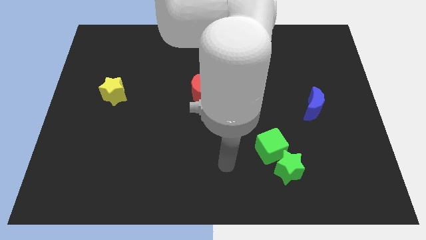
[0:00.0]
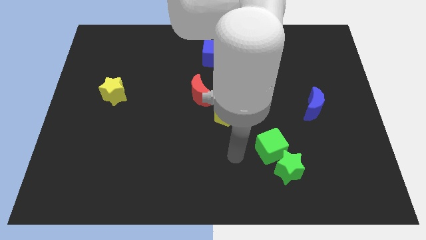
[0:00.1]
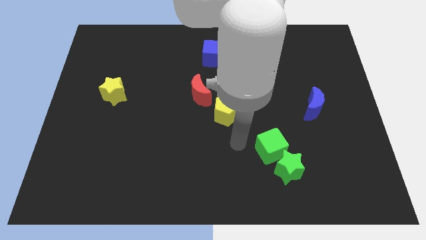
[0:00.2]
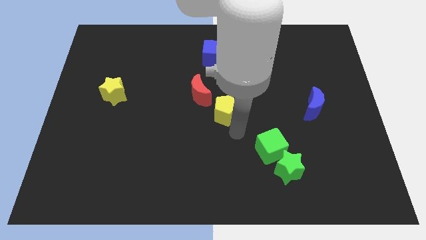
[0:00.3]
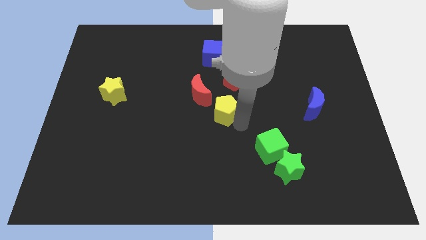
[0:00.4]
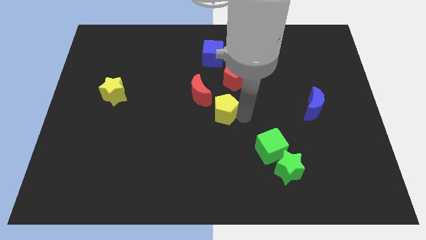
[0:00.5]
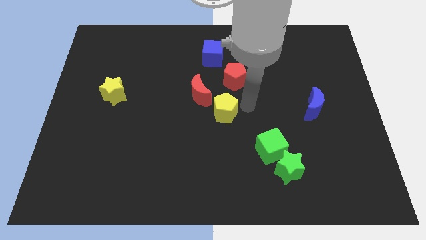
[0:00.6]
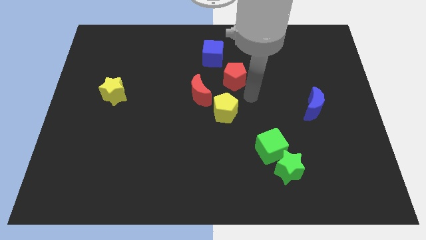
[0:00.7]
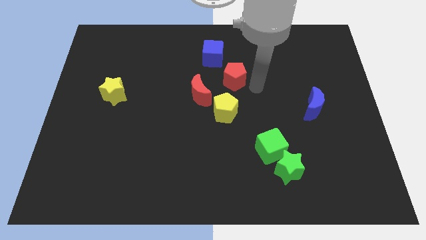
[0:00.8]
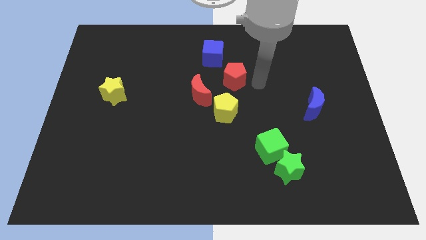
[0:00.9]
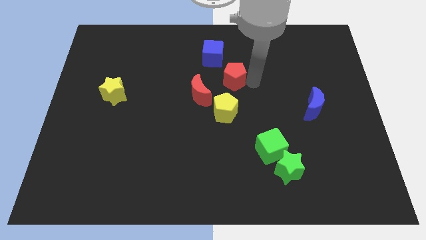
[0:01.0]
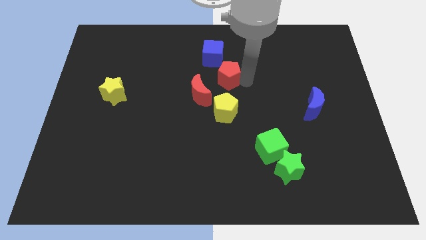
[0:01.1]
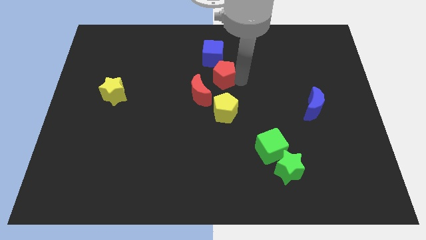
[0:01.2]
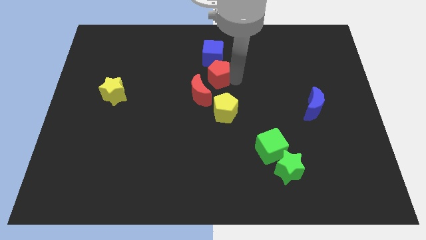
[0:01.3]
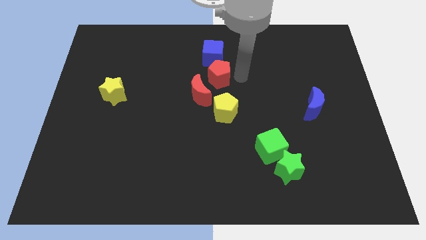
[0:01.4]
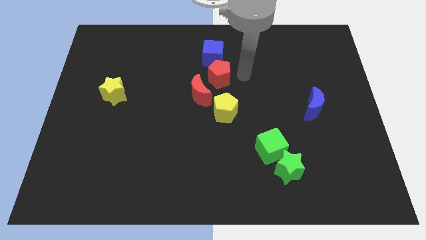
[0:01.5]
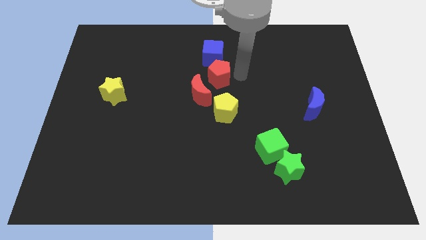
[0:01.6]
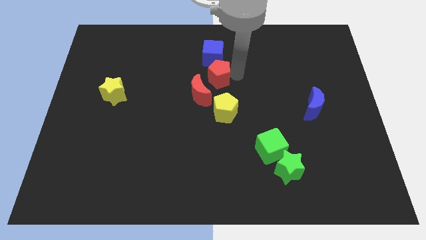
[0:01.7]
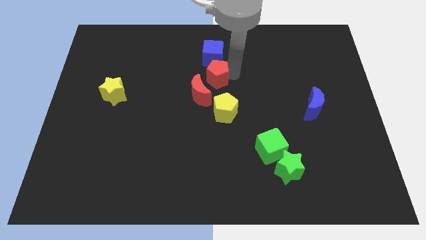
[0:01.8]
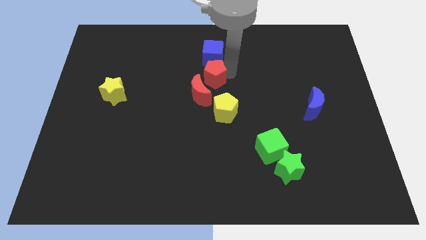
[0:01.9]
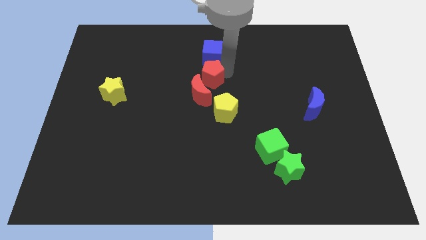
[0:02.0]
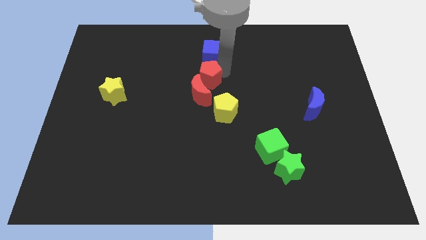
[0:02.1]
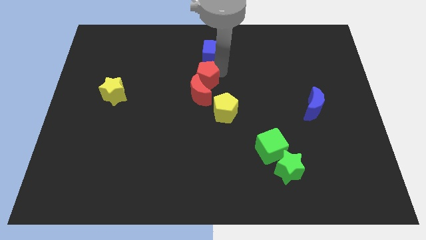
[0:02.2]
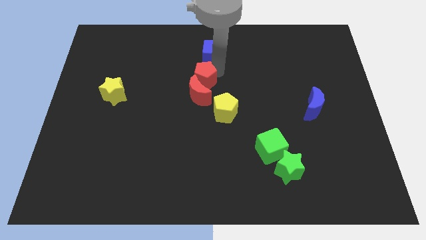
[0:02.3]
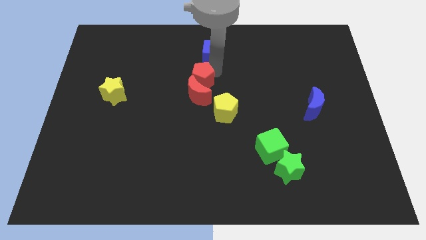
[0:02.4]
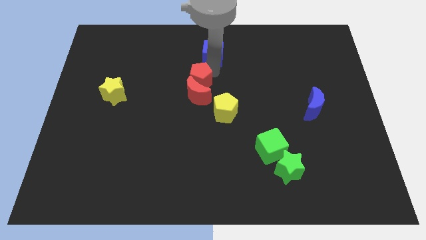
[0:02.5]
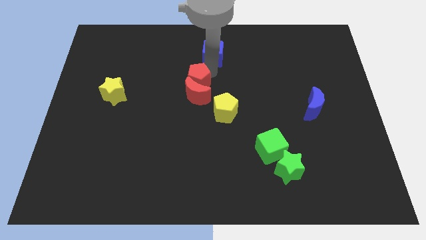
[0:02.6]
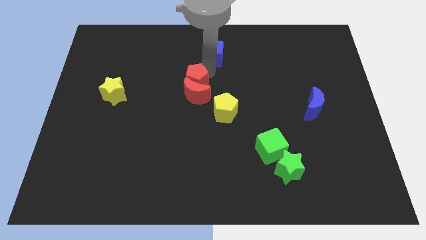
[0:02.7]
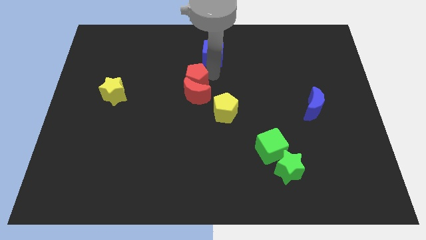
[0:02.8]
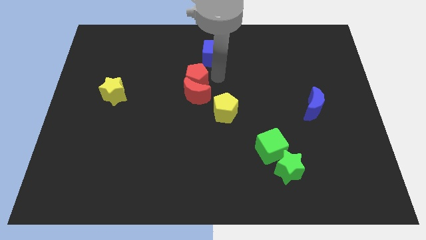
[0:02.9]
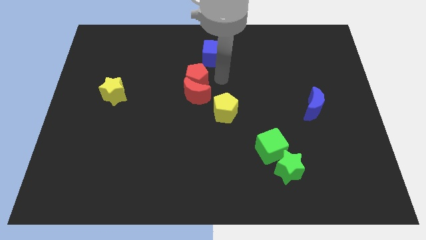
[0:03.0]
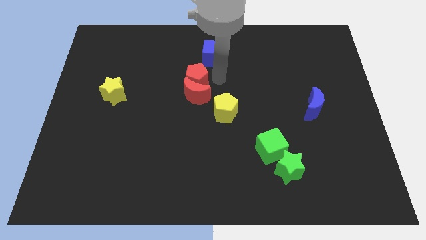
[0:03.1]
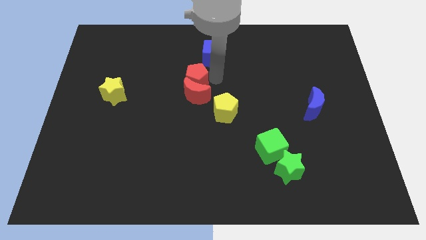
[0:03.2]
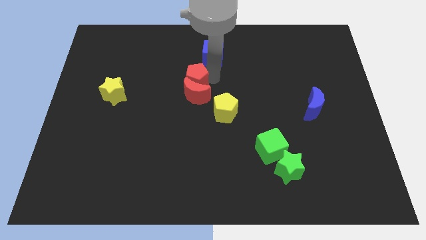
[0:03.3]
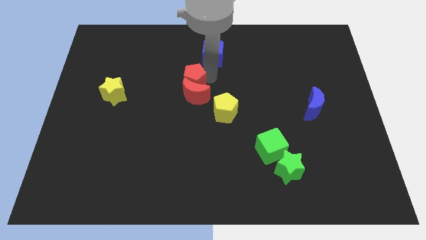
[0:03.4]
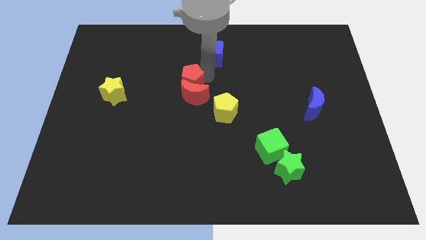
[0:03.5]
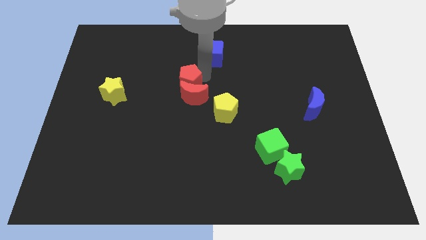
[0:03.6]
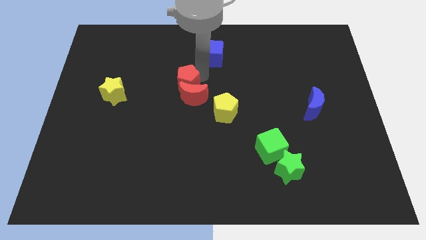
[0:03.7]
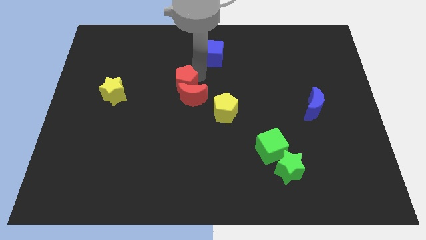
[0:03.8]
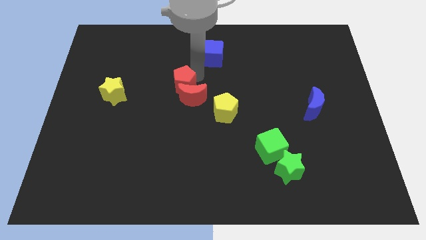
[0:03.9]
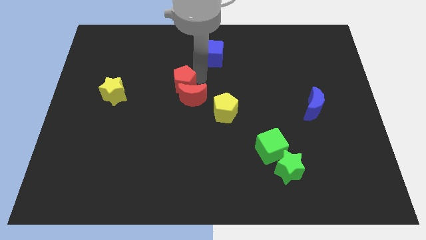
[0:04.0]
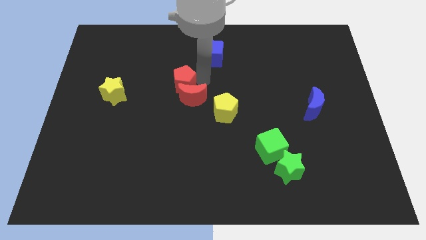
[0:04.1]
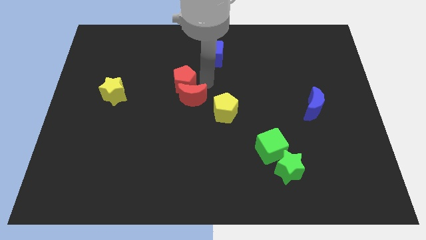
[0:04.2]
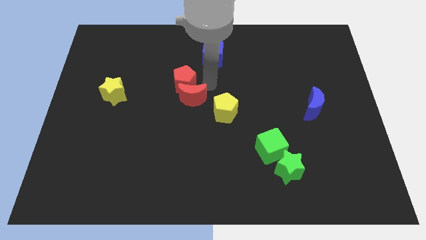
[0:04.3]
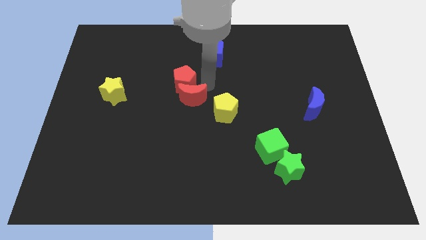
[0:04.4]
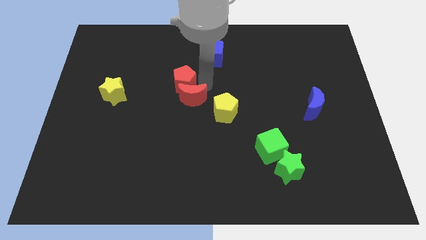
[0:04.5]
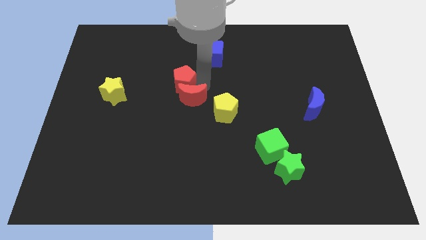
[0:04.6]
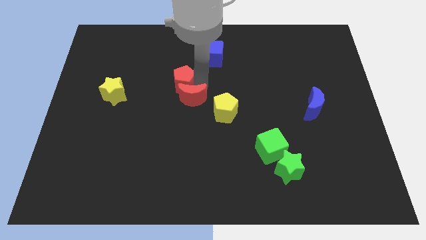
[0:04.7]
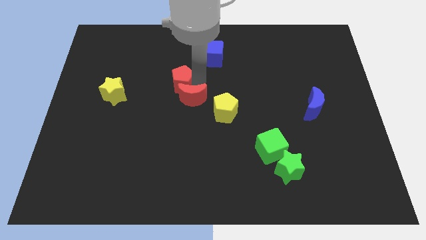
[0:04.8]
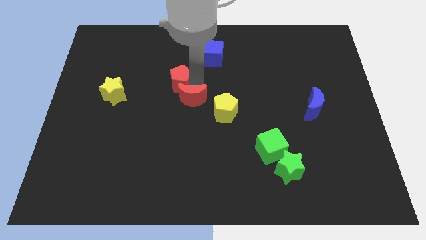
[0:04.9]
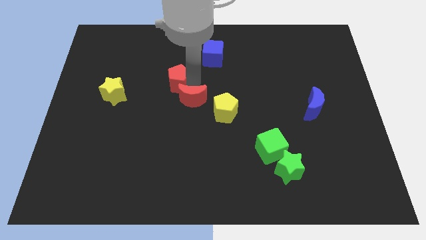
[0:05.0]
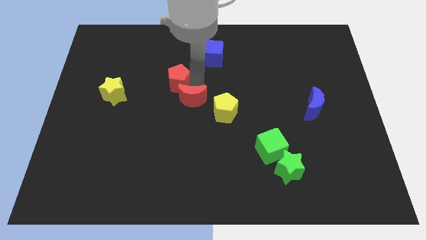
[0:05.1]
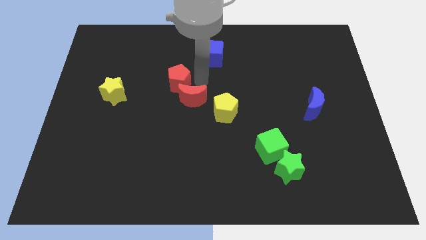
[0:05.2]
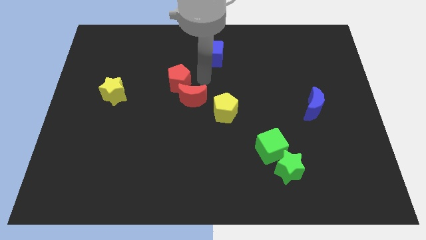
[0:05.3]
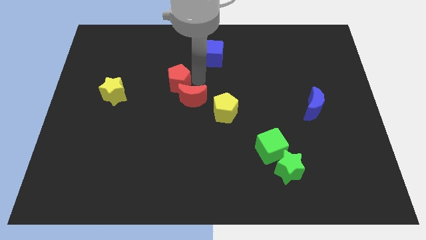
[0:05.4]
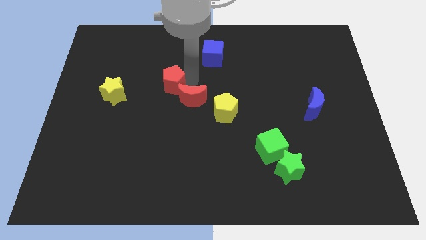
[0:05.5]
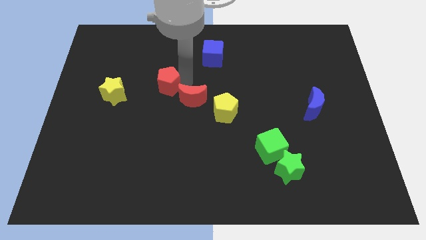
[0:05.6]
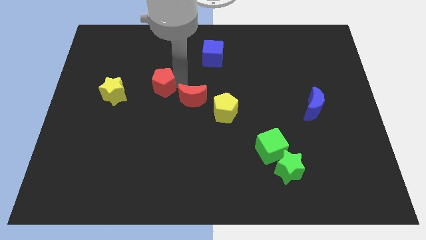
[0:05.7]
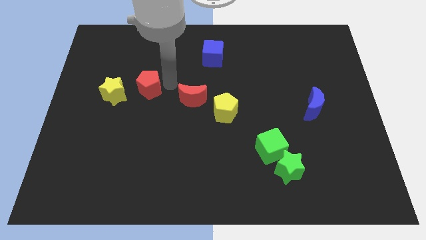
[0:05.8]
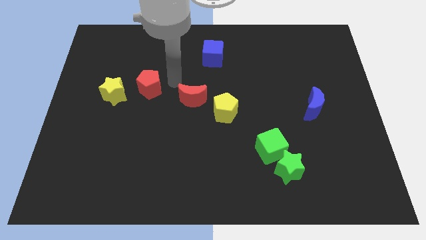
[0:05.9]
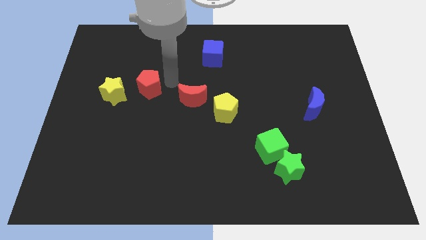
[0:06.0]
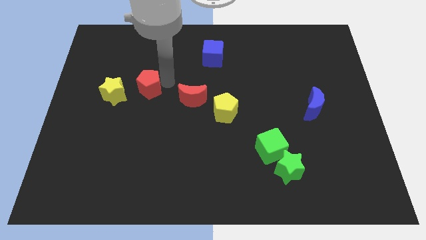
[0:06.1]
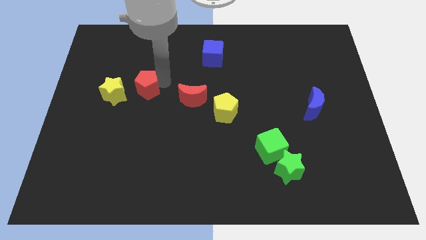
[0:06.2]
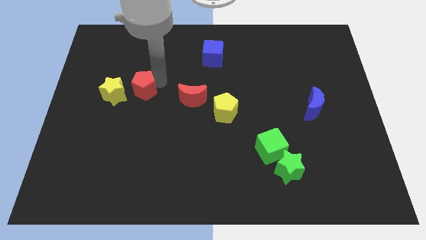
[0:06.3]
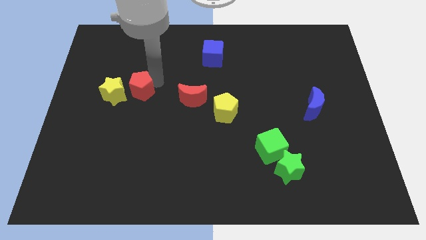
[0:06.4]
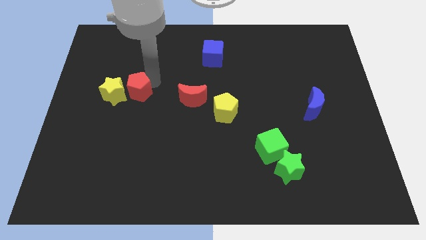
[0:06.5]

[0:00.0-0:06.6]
slide the red pentagon towards the yellow star

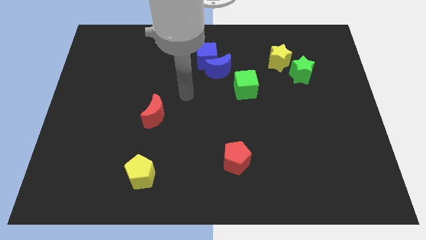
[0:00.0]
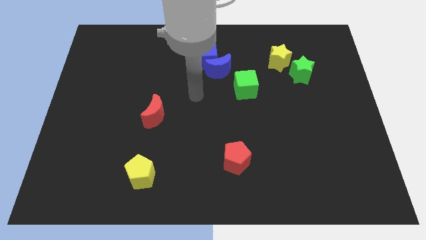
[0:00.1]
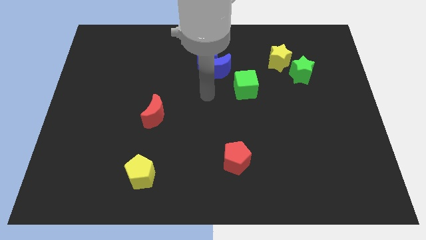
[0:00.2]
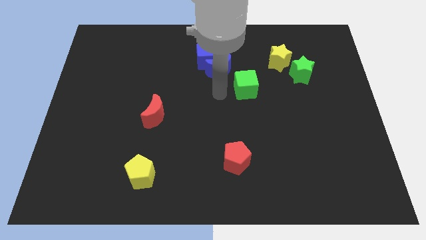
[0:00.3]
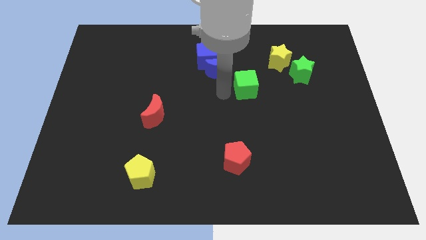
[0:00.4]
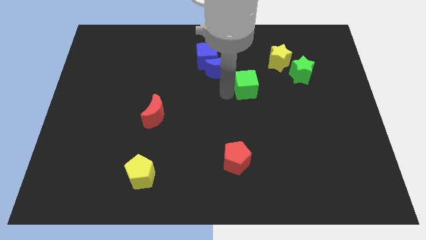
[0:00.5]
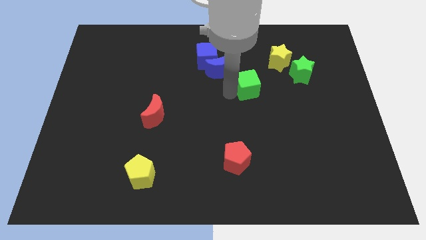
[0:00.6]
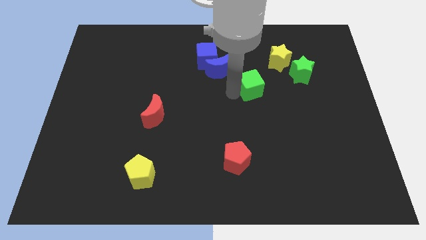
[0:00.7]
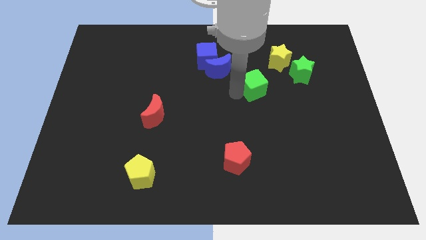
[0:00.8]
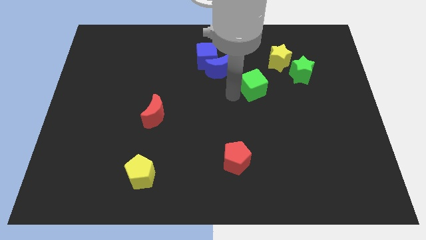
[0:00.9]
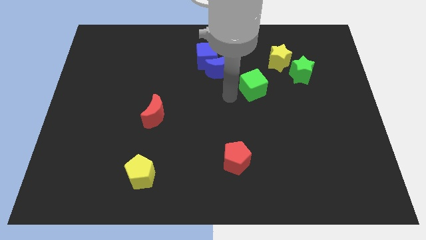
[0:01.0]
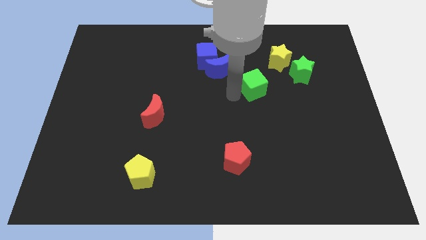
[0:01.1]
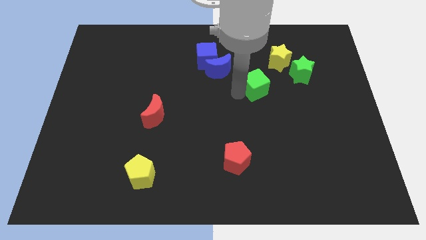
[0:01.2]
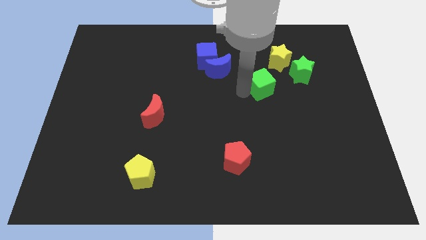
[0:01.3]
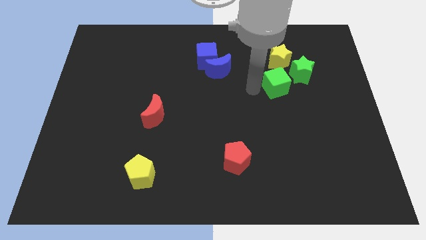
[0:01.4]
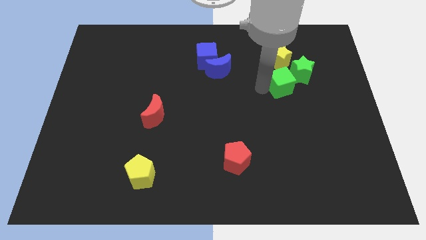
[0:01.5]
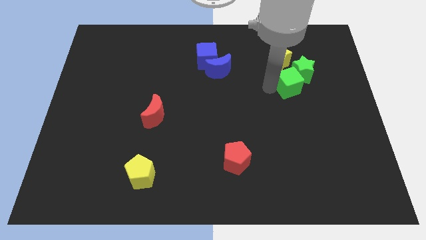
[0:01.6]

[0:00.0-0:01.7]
put the green cube towards the green star
